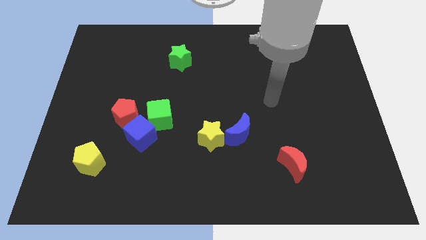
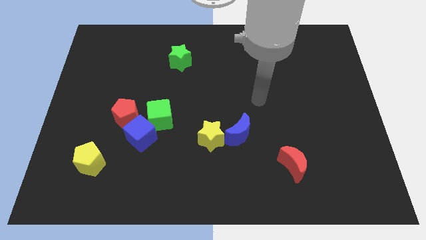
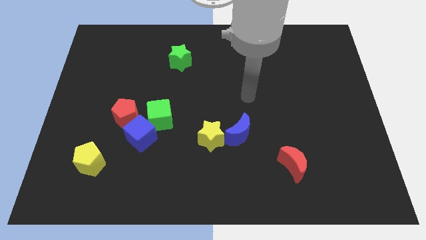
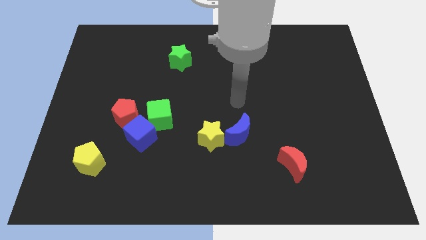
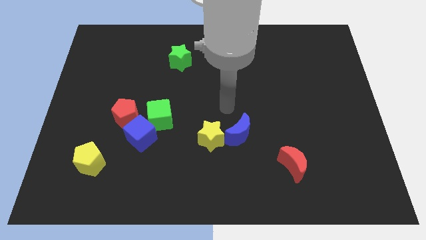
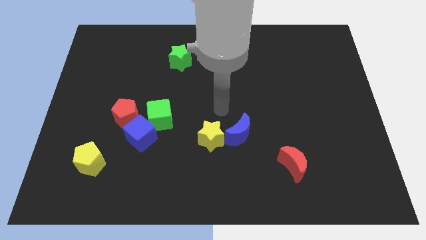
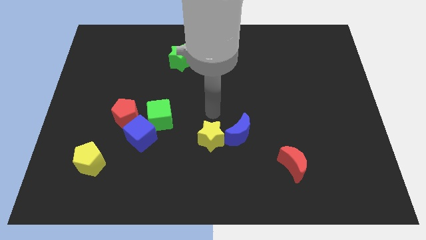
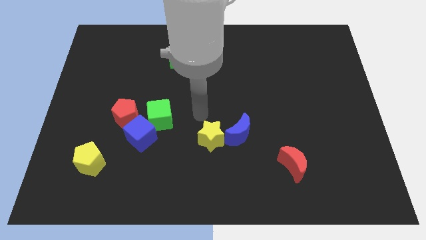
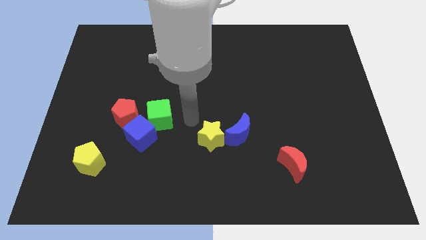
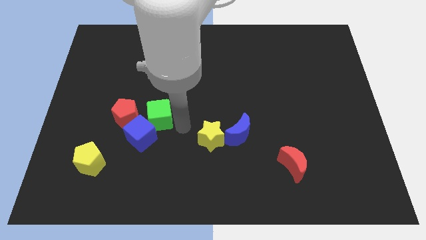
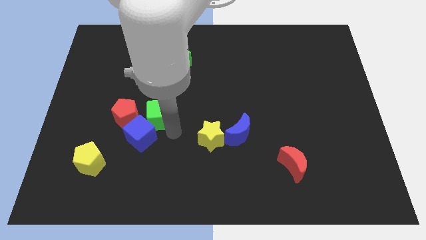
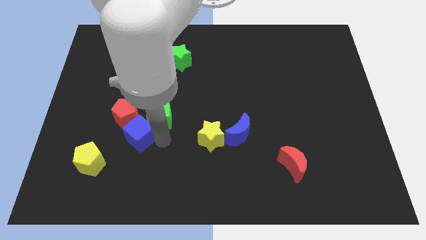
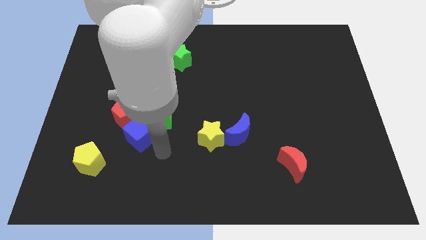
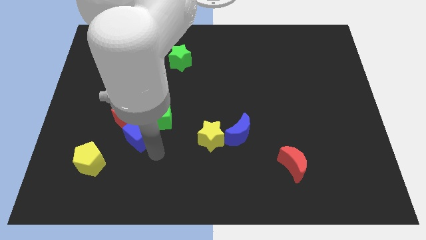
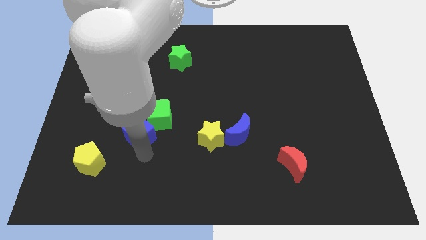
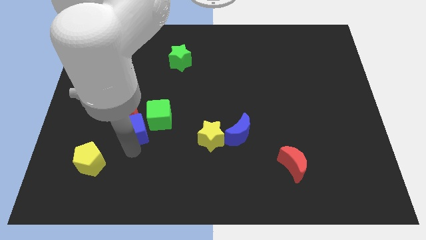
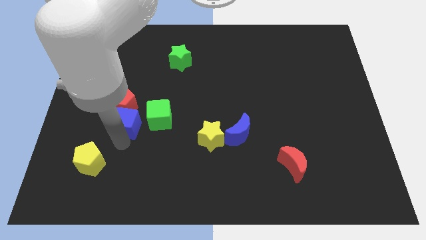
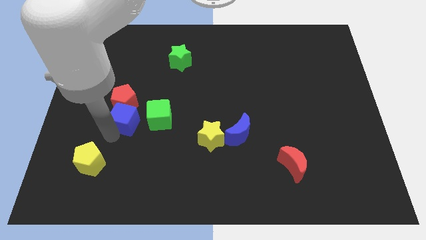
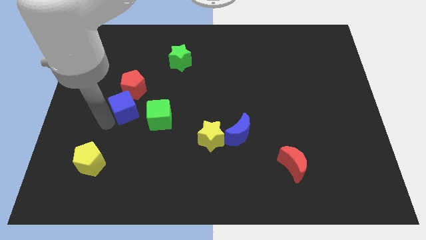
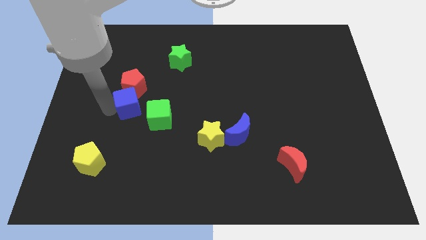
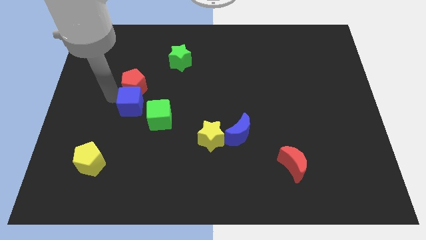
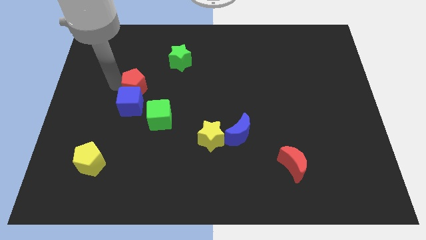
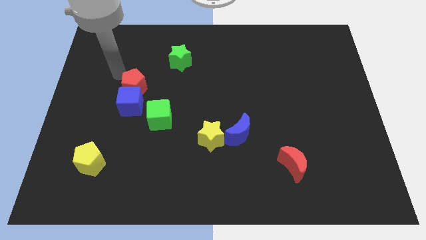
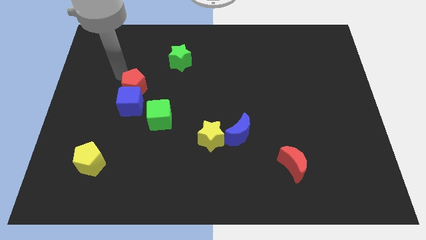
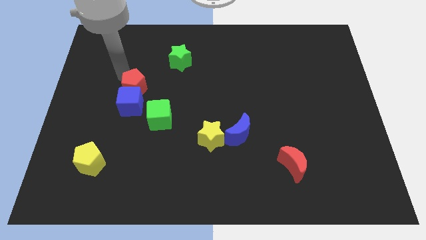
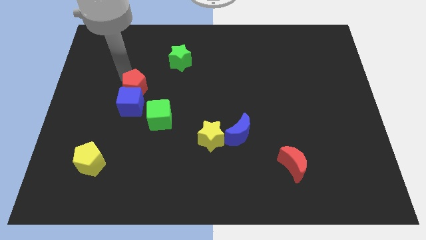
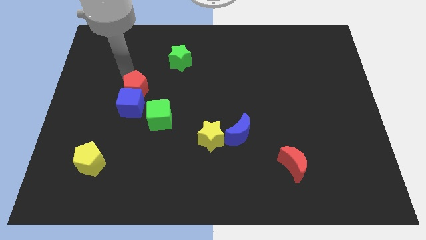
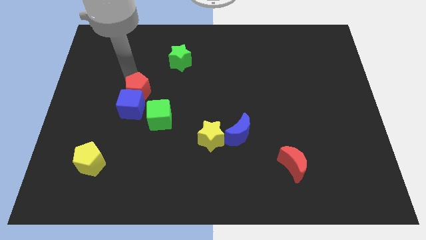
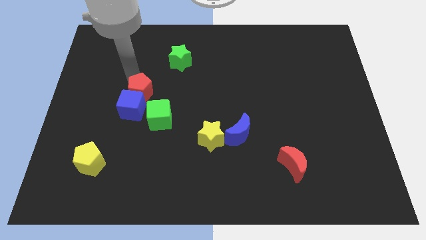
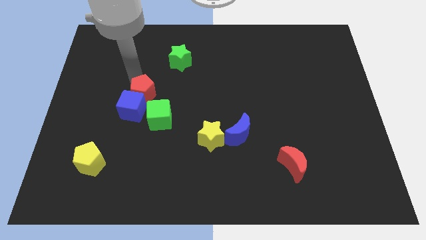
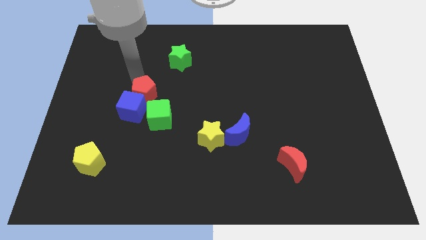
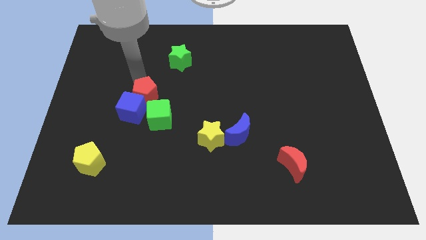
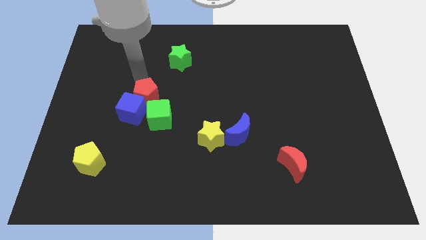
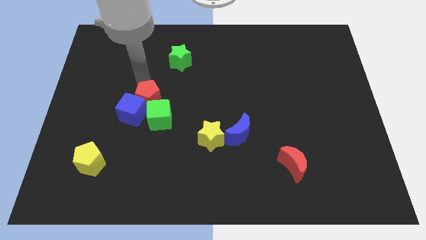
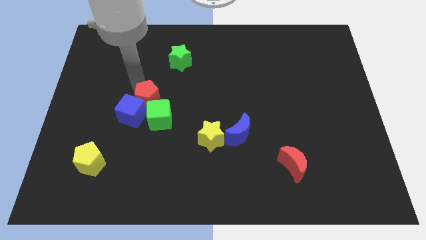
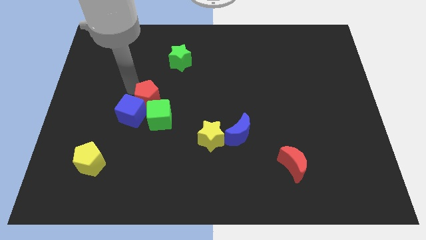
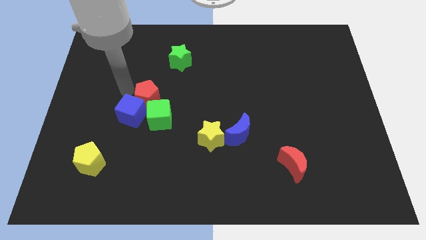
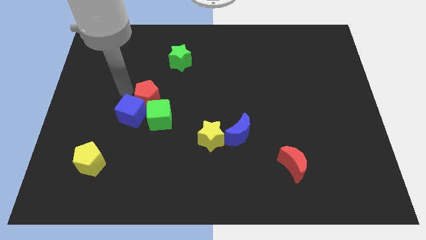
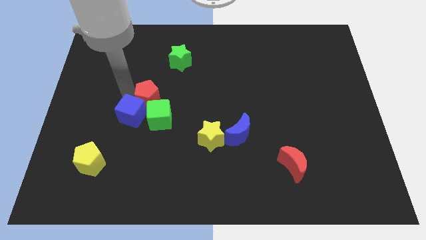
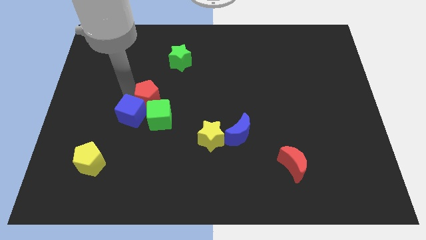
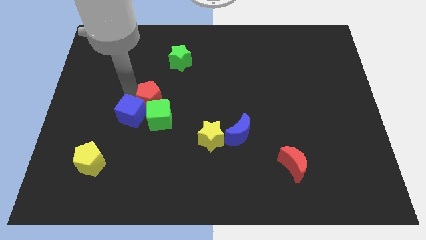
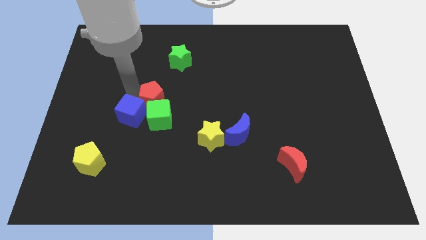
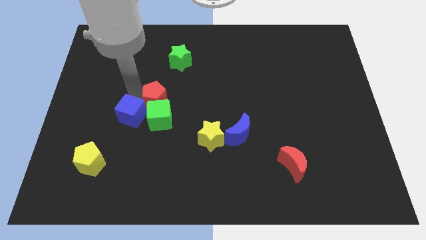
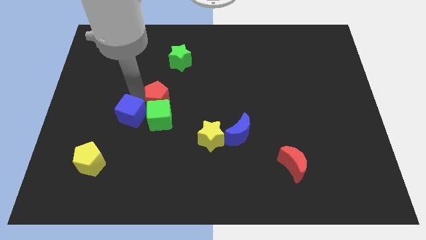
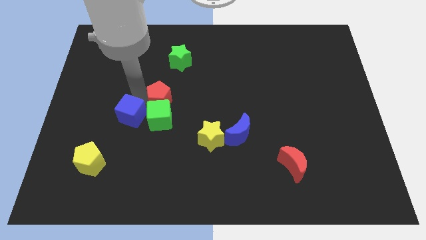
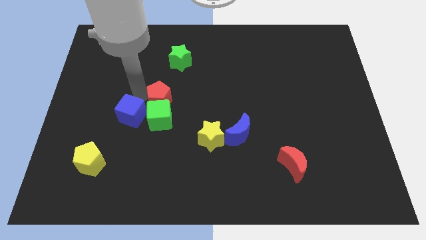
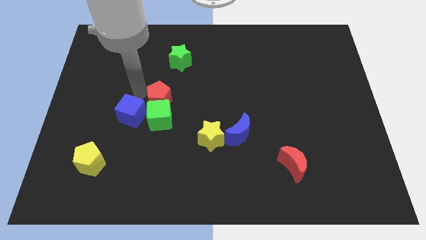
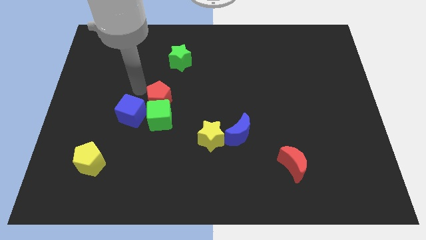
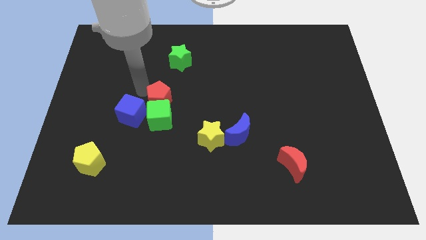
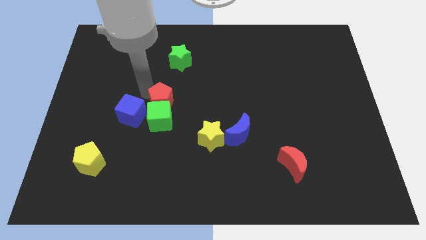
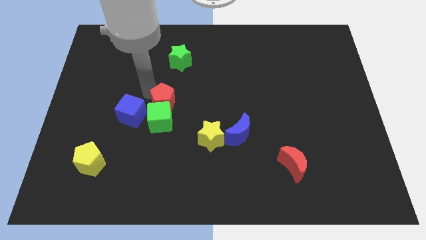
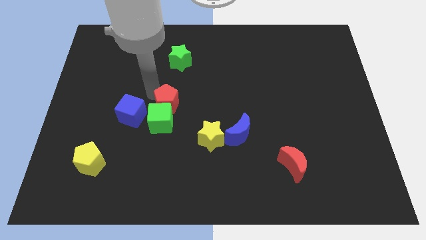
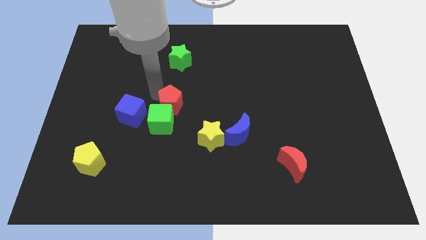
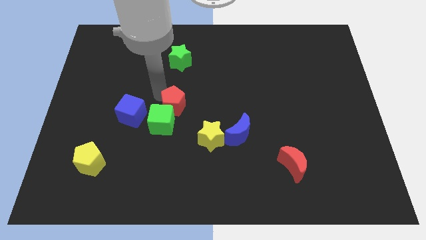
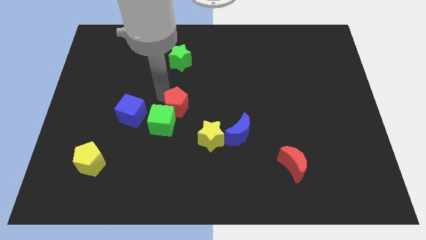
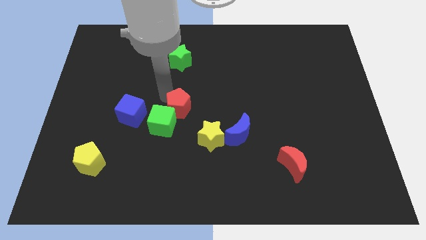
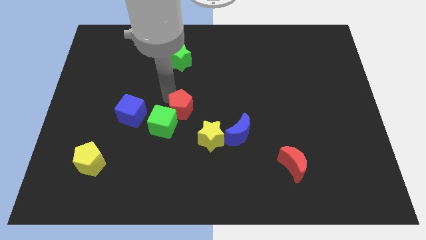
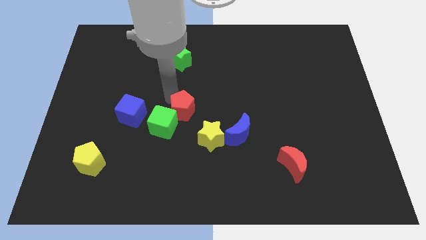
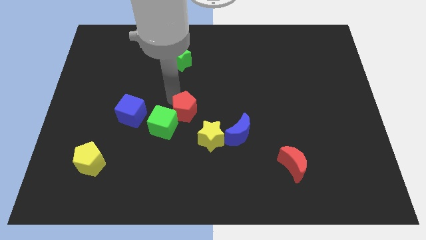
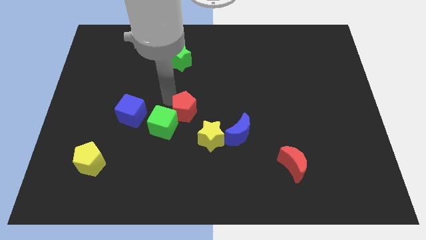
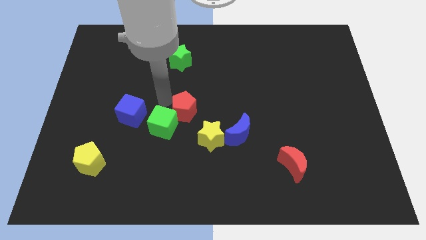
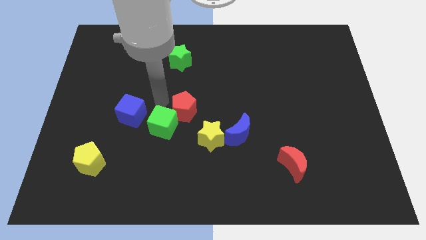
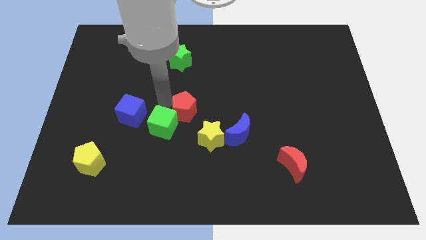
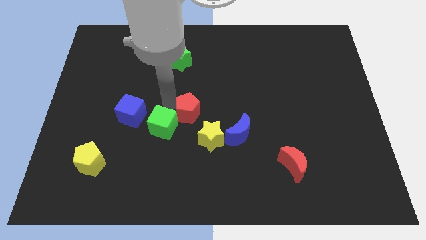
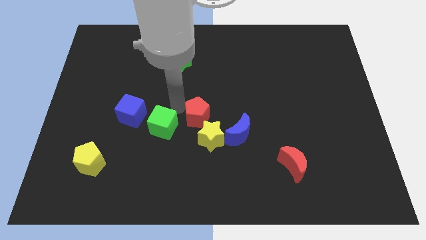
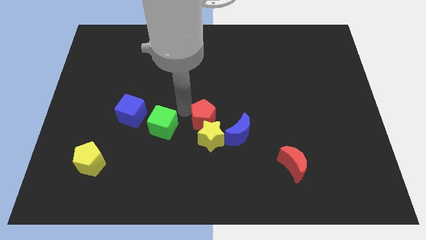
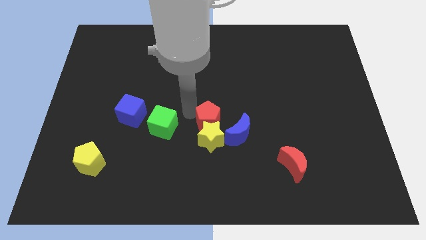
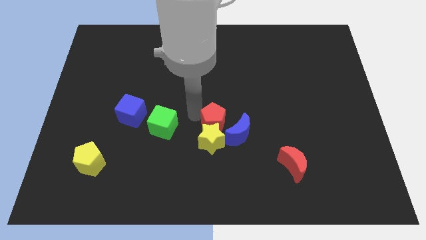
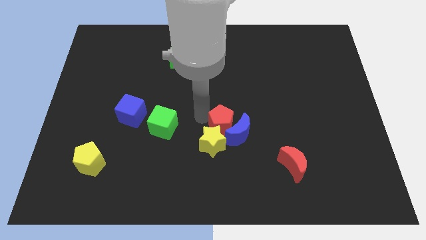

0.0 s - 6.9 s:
slide the red pentagon to the blue moon

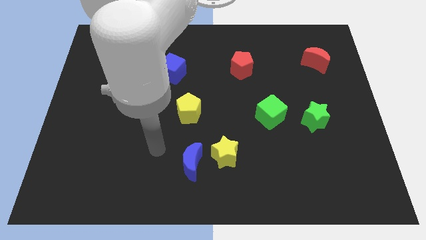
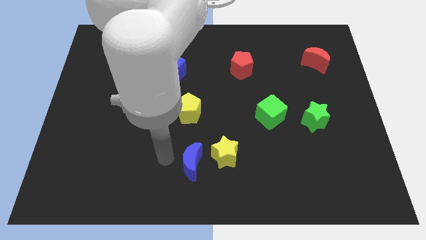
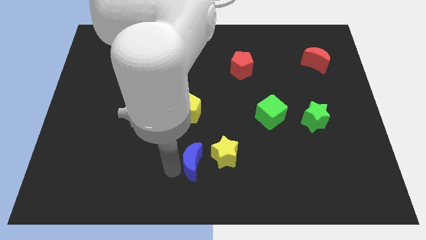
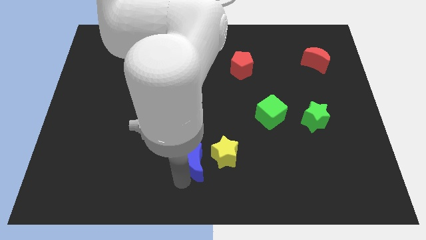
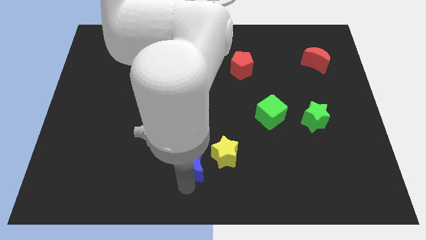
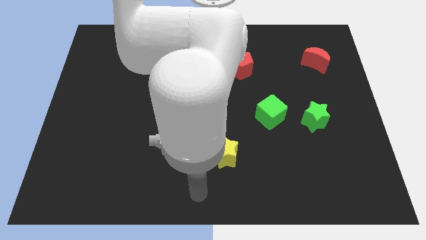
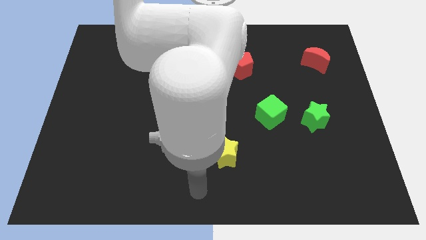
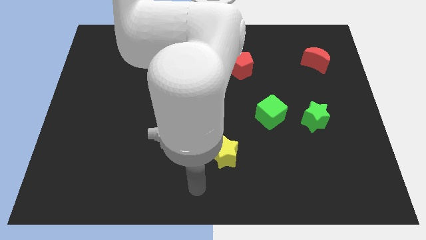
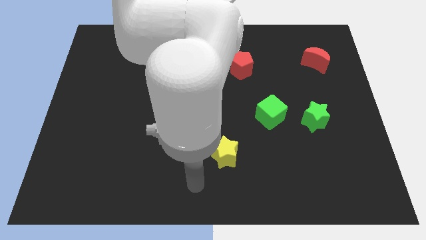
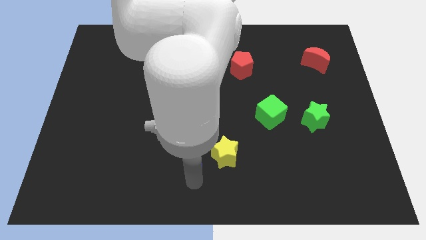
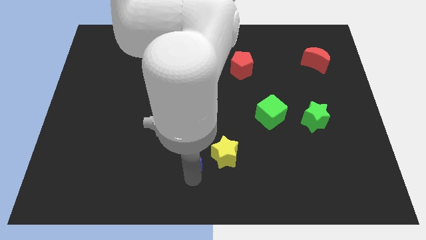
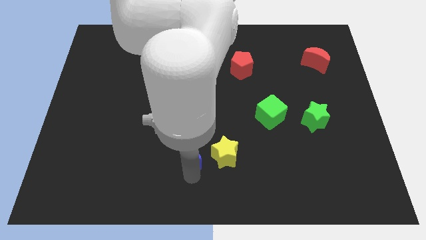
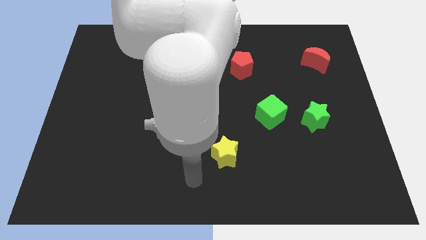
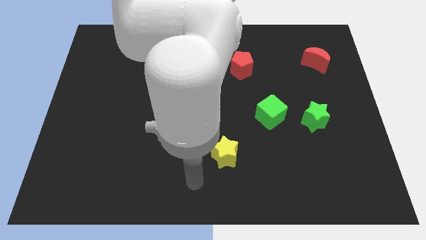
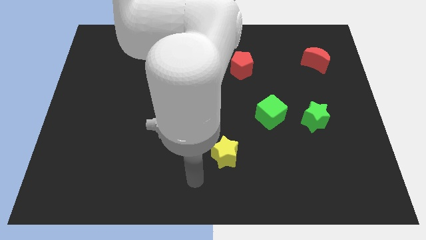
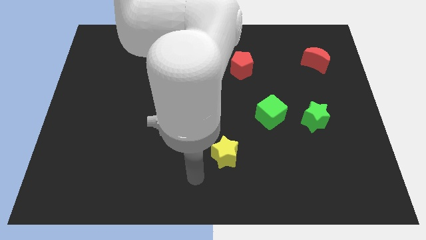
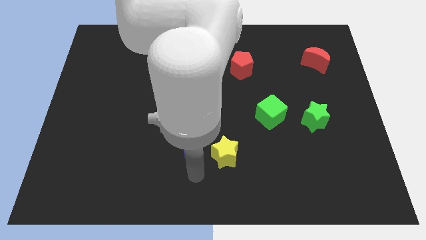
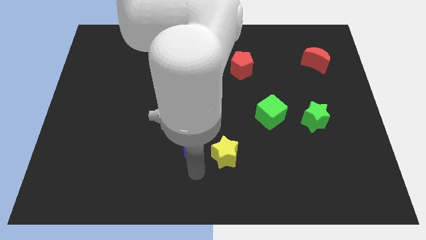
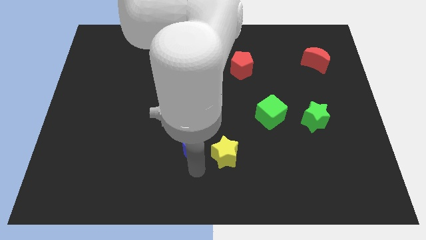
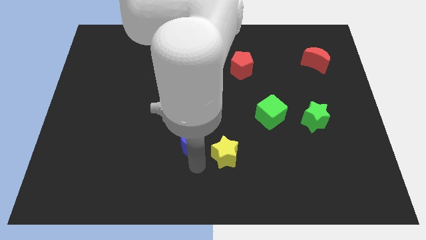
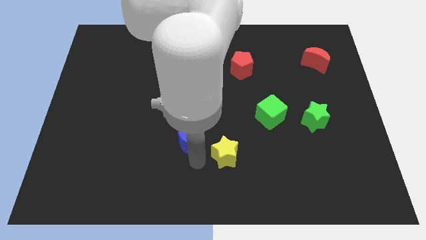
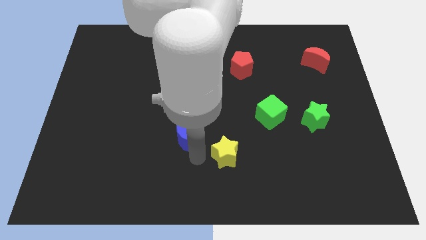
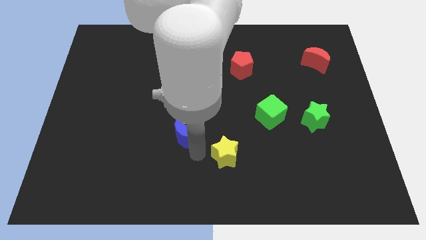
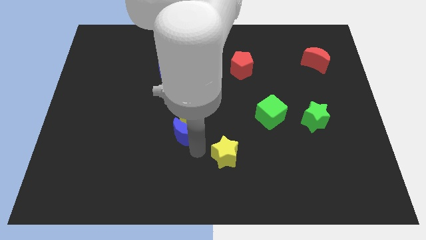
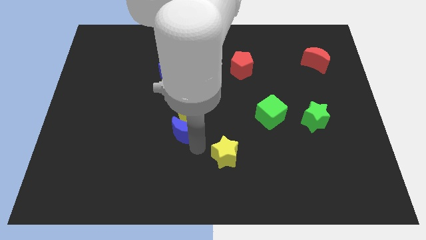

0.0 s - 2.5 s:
push the blue moon towards the yellow pentagon
